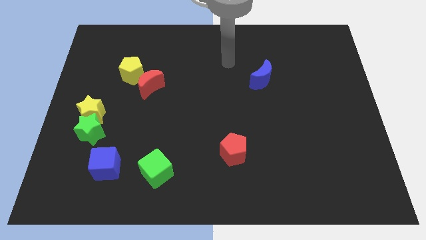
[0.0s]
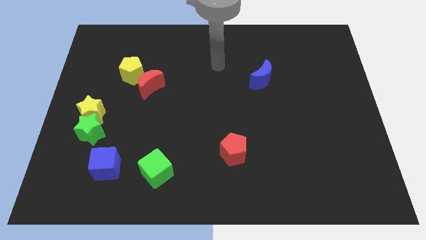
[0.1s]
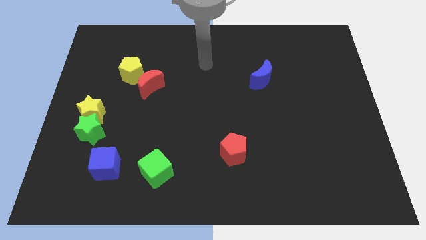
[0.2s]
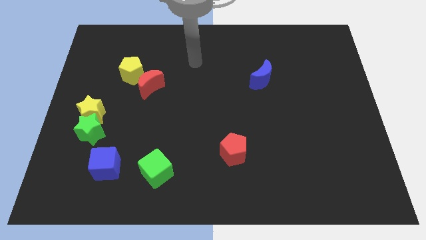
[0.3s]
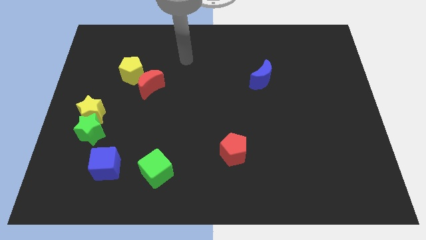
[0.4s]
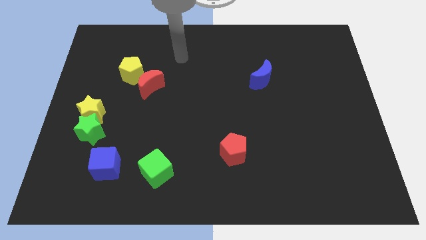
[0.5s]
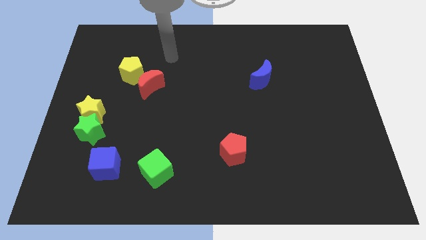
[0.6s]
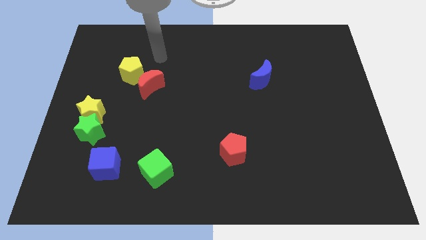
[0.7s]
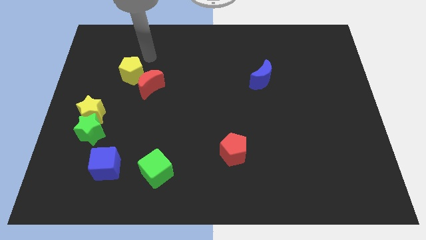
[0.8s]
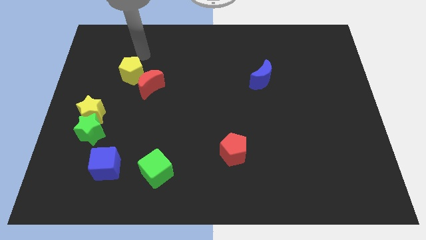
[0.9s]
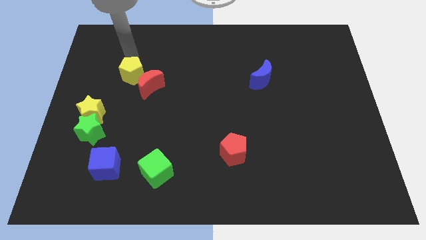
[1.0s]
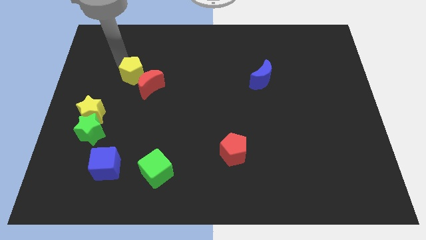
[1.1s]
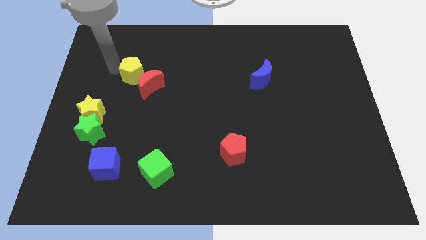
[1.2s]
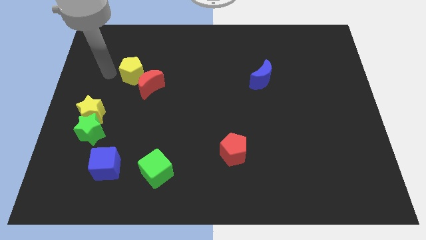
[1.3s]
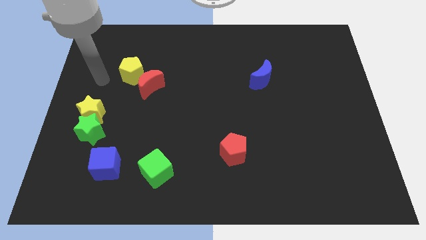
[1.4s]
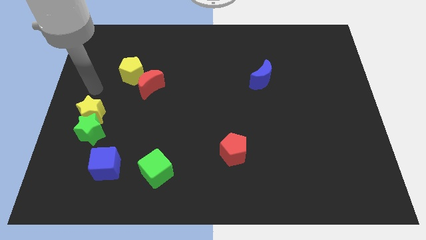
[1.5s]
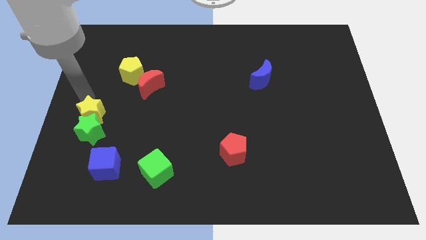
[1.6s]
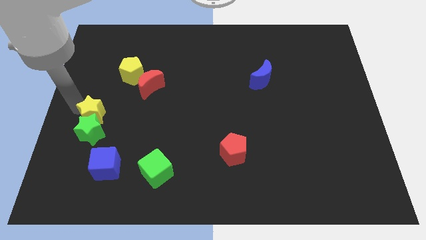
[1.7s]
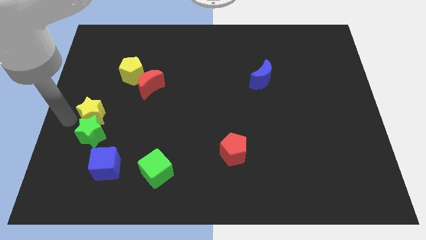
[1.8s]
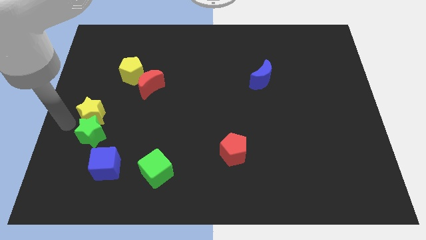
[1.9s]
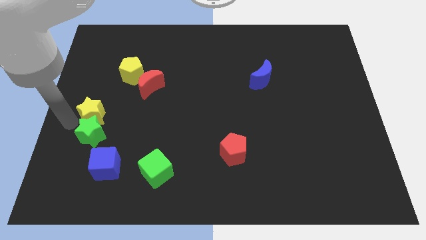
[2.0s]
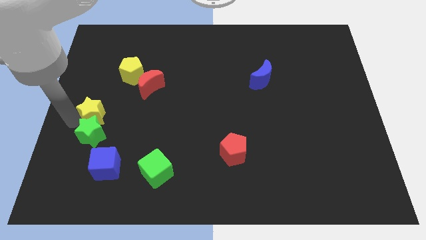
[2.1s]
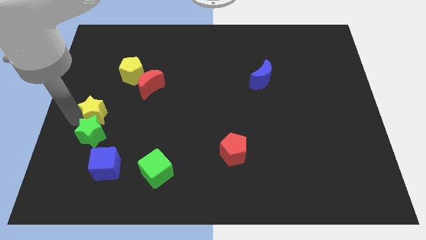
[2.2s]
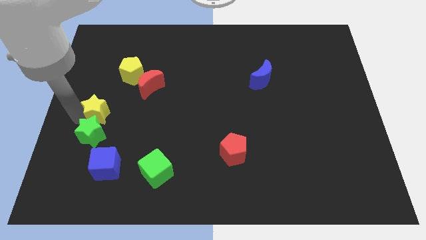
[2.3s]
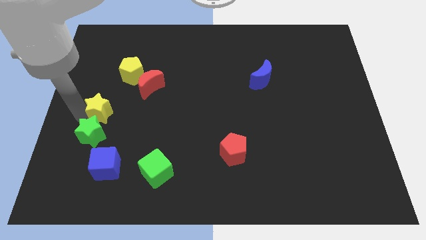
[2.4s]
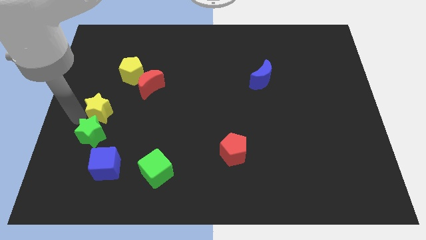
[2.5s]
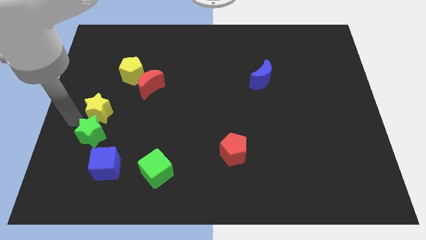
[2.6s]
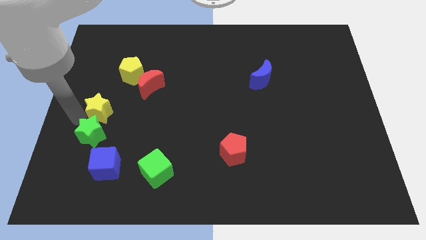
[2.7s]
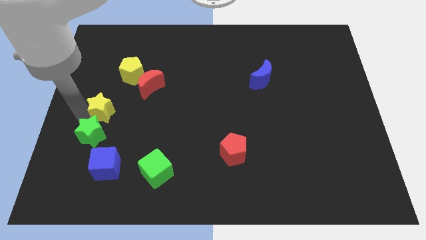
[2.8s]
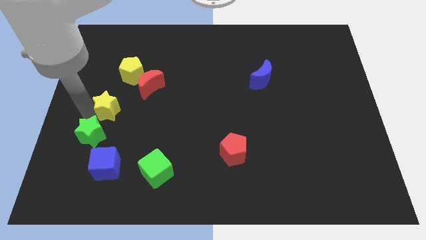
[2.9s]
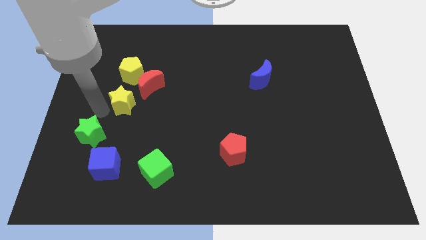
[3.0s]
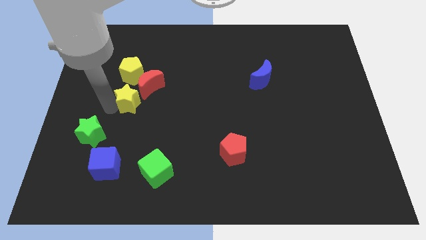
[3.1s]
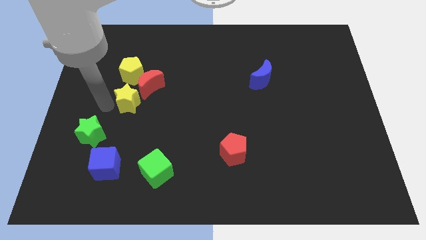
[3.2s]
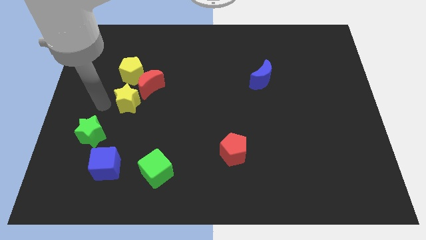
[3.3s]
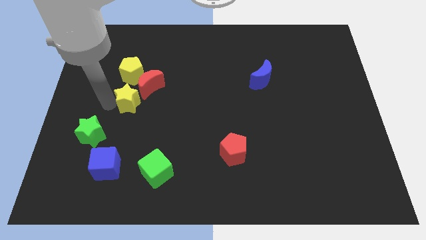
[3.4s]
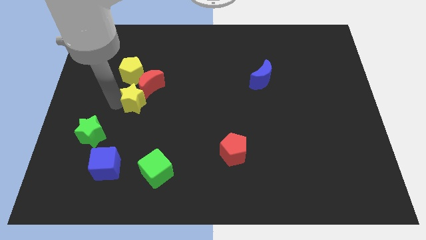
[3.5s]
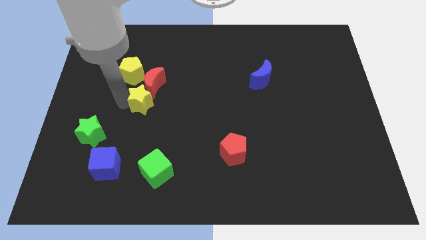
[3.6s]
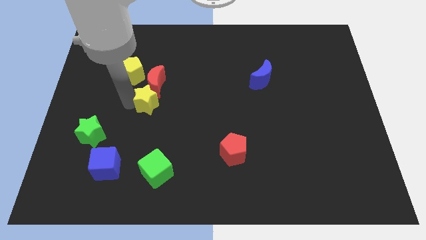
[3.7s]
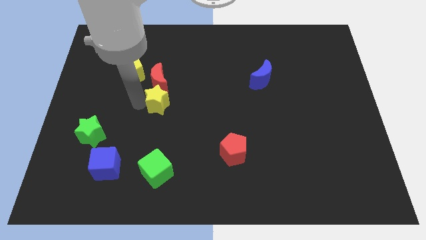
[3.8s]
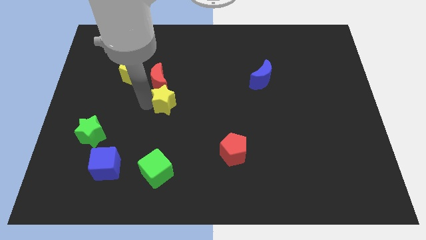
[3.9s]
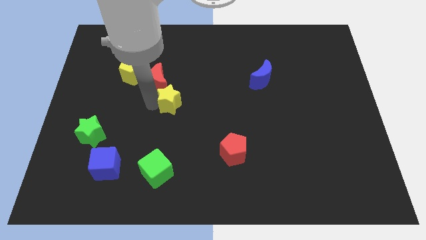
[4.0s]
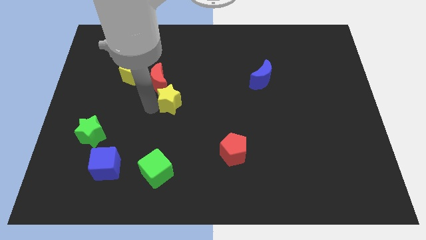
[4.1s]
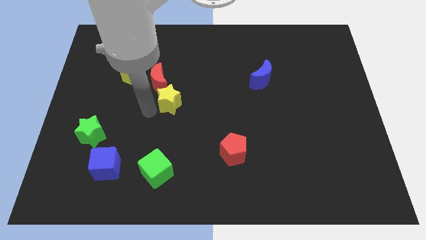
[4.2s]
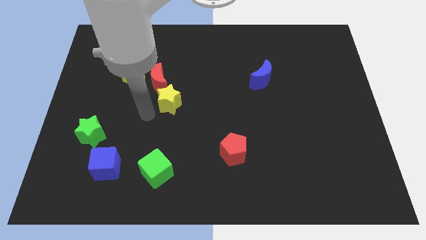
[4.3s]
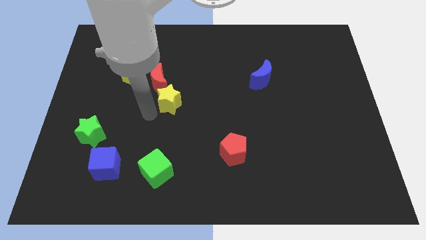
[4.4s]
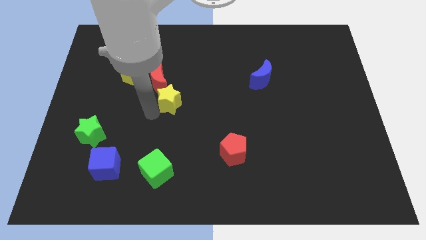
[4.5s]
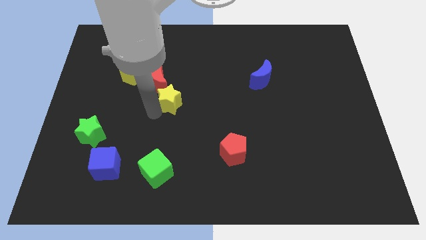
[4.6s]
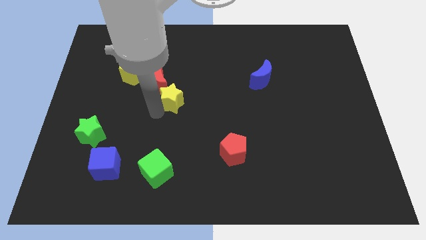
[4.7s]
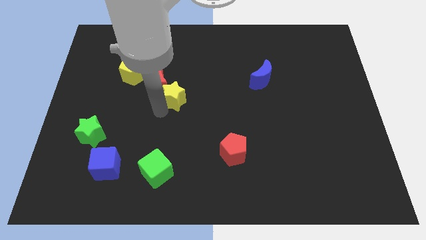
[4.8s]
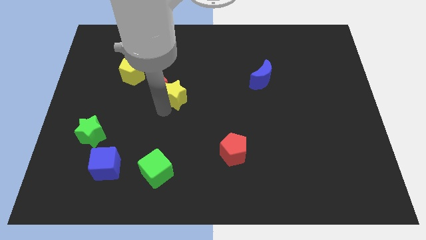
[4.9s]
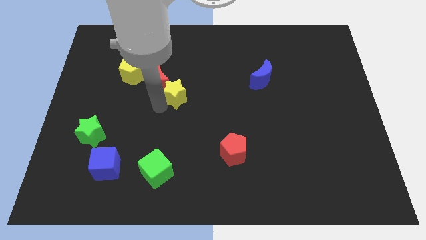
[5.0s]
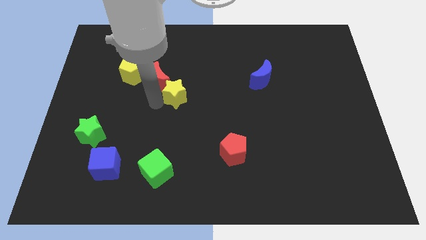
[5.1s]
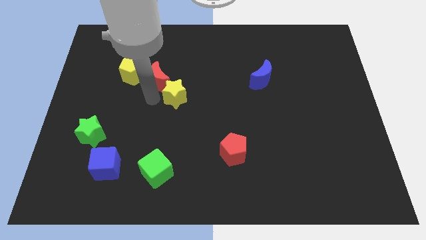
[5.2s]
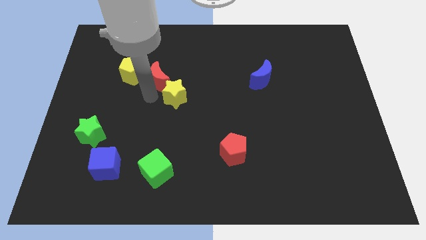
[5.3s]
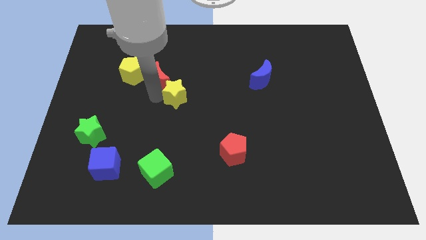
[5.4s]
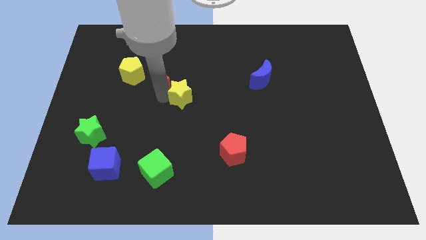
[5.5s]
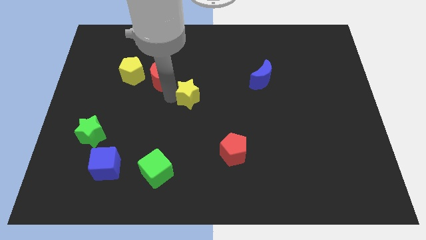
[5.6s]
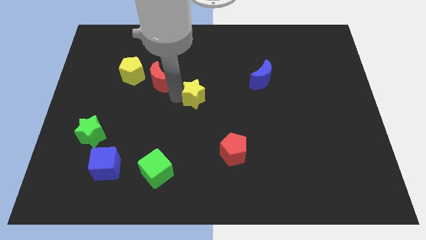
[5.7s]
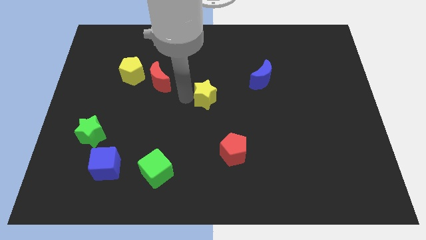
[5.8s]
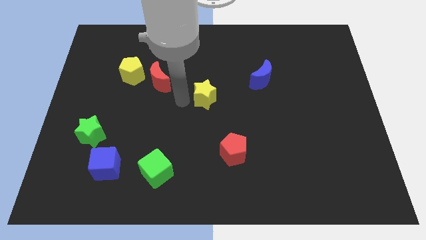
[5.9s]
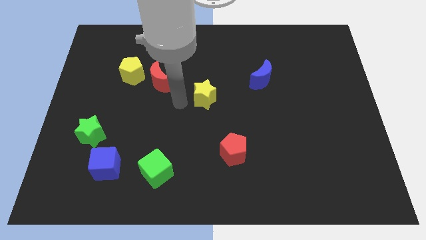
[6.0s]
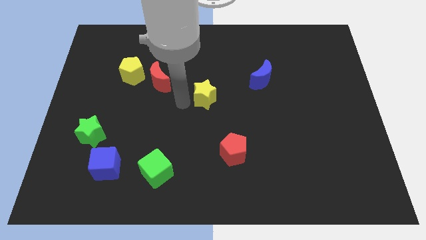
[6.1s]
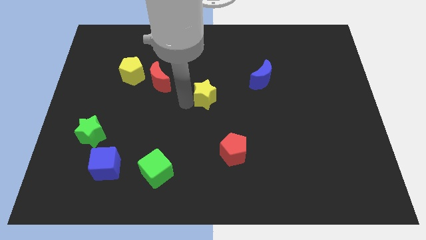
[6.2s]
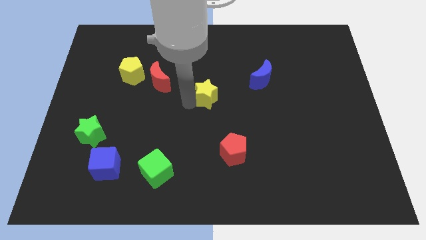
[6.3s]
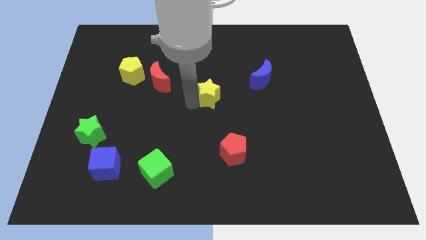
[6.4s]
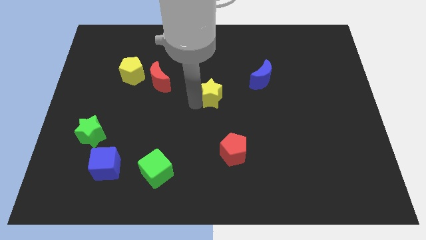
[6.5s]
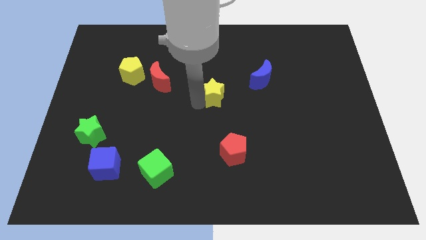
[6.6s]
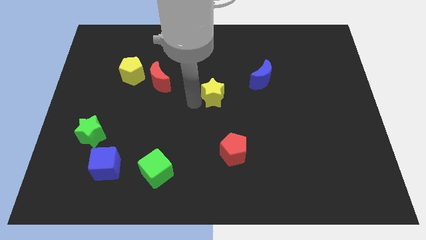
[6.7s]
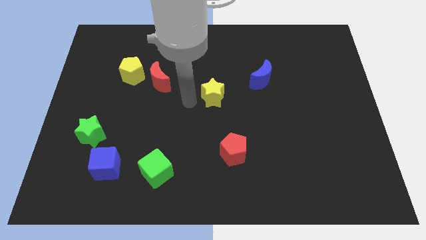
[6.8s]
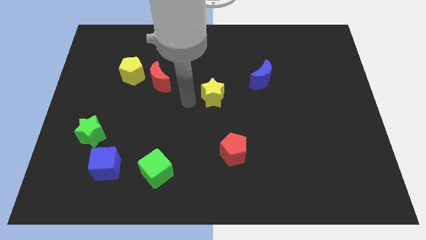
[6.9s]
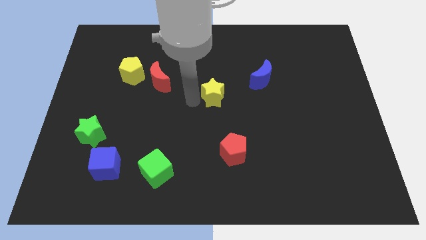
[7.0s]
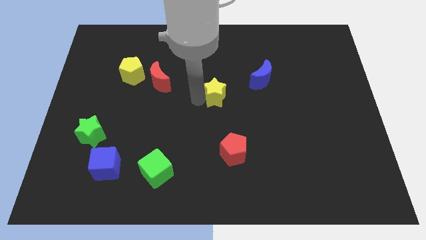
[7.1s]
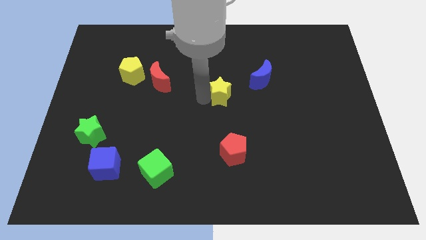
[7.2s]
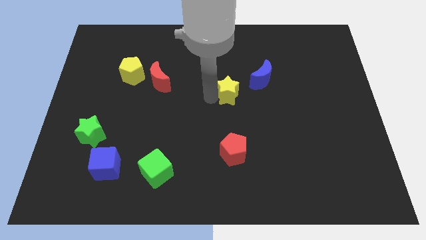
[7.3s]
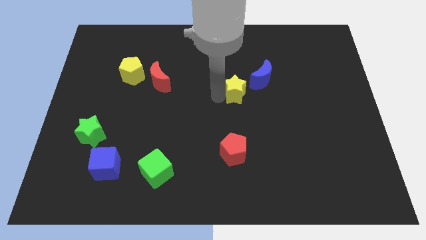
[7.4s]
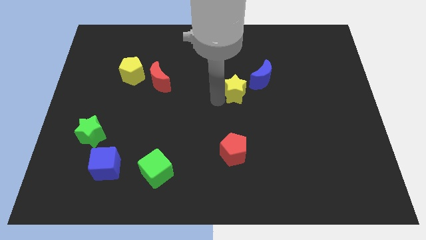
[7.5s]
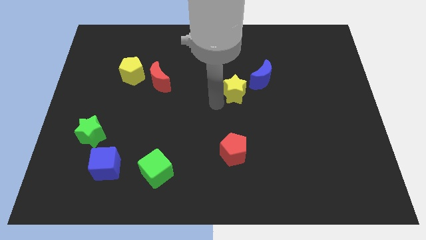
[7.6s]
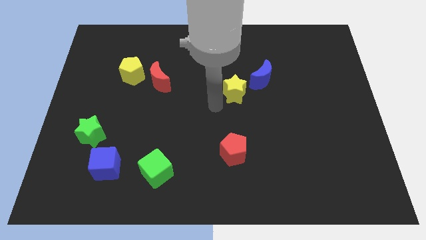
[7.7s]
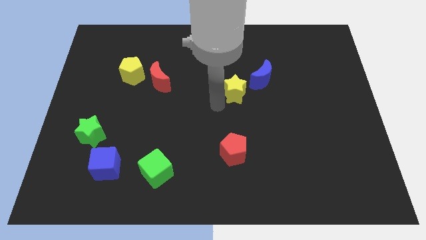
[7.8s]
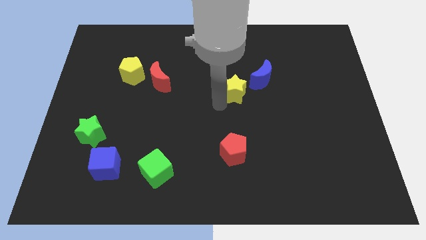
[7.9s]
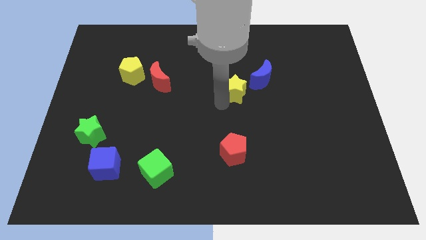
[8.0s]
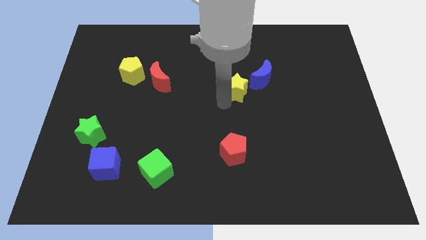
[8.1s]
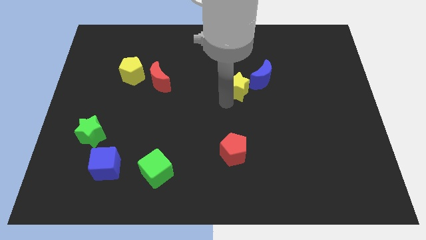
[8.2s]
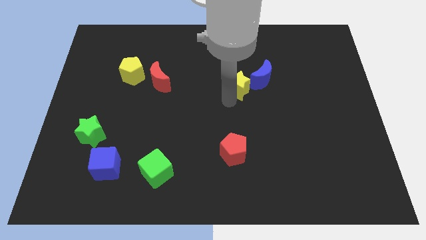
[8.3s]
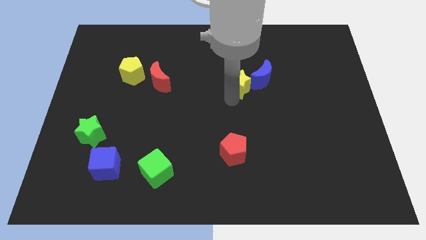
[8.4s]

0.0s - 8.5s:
put the yellow star towards the blue moon
